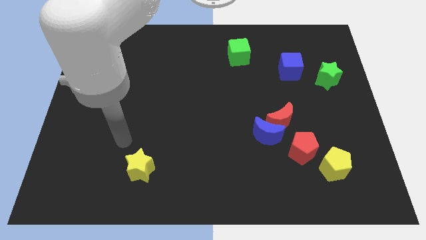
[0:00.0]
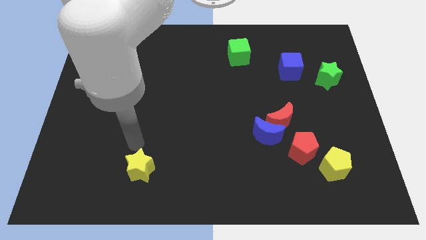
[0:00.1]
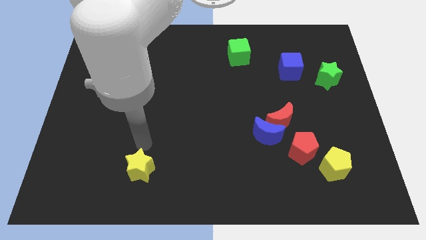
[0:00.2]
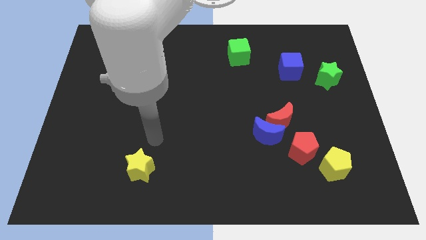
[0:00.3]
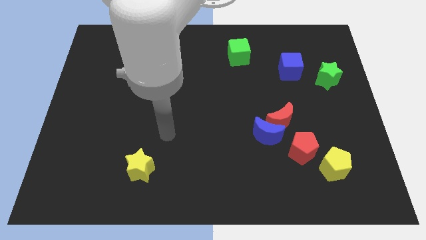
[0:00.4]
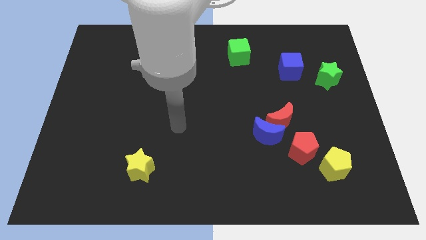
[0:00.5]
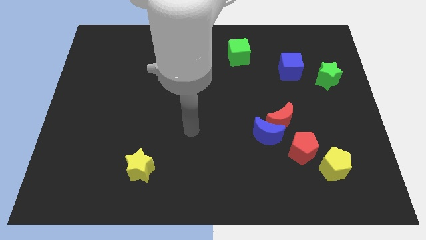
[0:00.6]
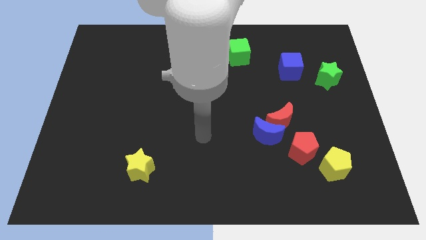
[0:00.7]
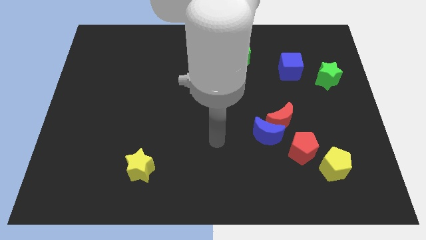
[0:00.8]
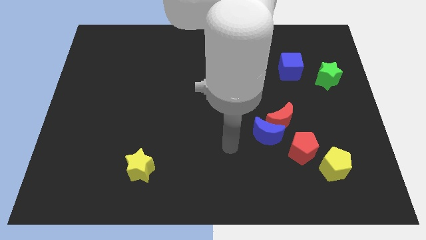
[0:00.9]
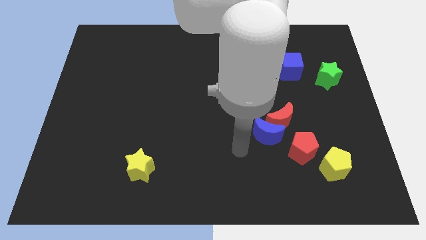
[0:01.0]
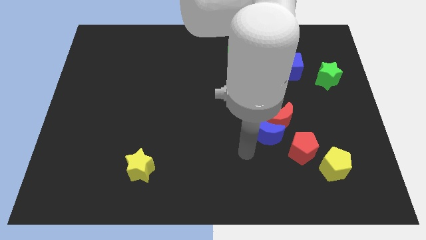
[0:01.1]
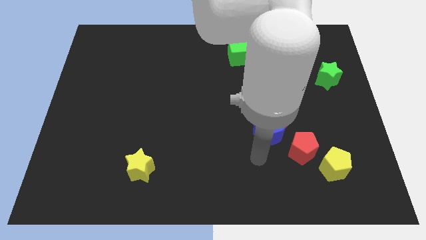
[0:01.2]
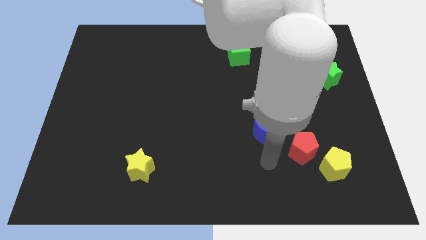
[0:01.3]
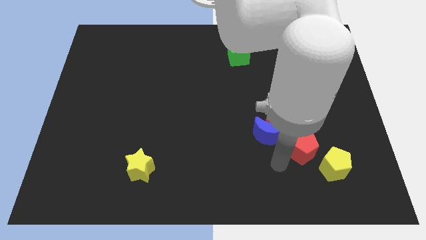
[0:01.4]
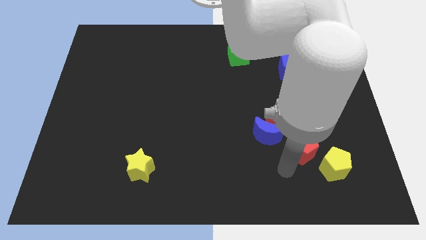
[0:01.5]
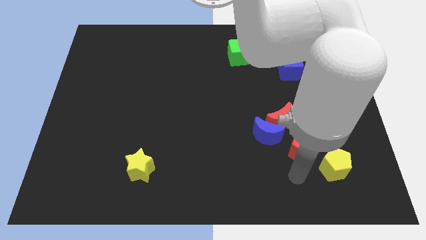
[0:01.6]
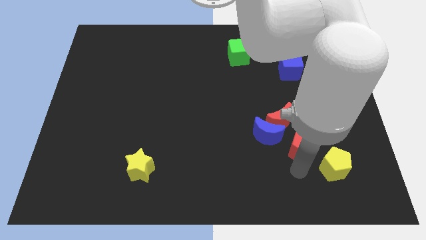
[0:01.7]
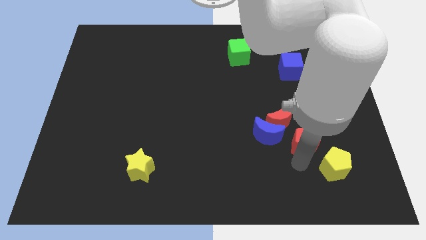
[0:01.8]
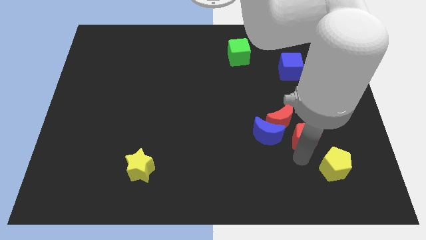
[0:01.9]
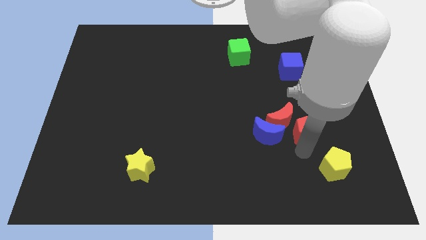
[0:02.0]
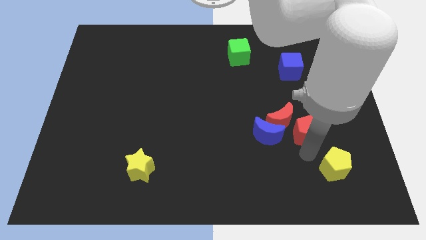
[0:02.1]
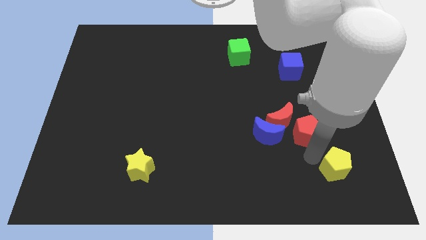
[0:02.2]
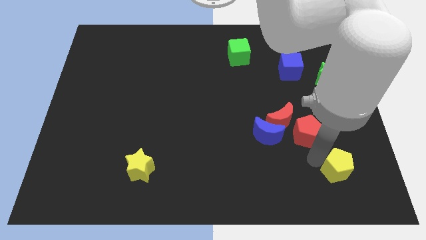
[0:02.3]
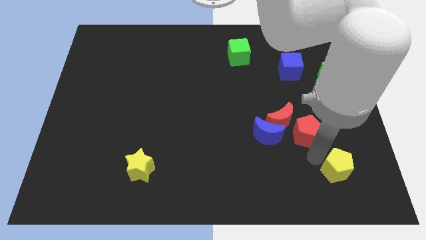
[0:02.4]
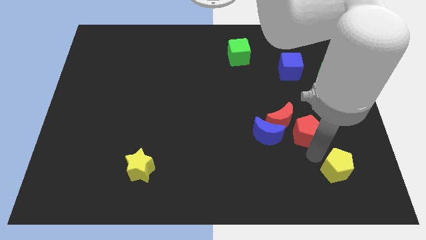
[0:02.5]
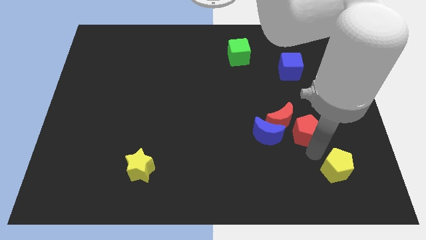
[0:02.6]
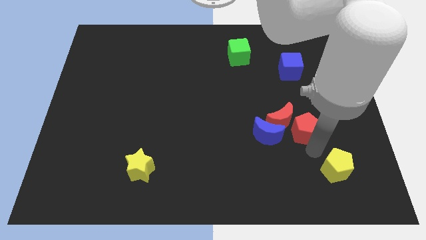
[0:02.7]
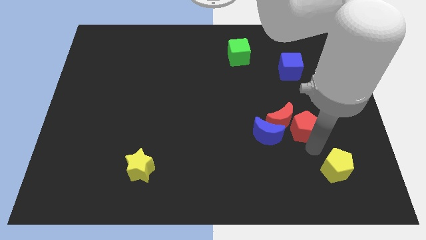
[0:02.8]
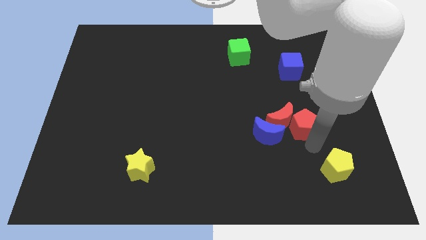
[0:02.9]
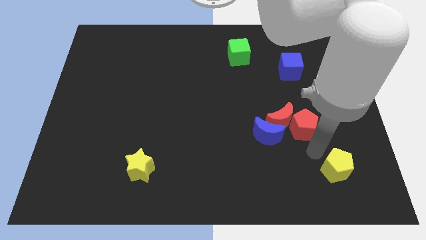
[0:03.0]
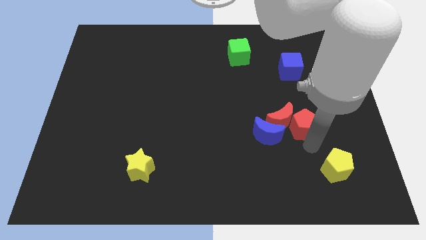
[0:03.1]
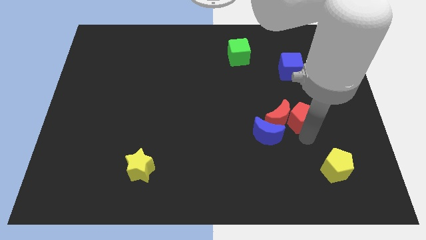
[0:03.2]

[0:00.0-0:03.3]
push the red pentagon a bit upwards

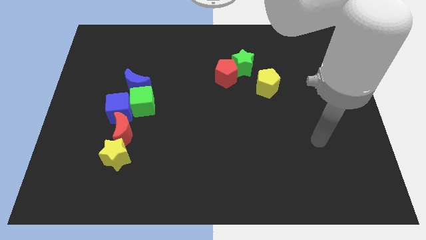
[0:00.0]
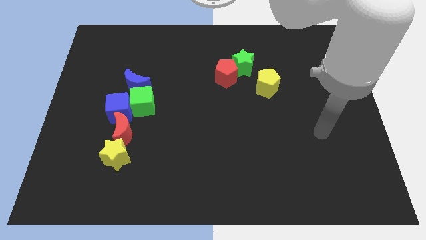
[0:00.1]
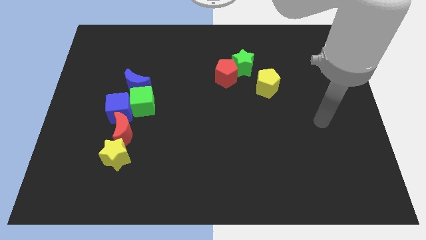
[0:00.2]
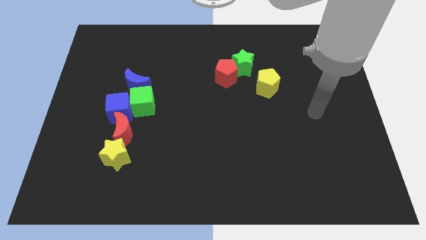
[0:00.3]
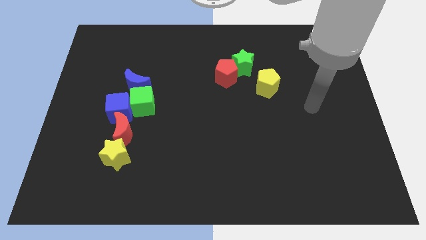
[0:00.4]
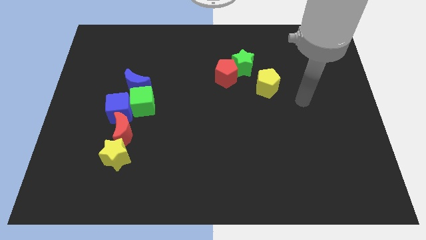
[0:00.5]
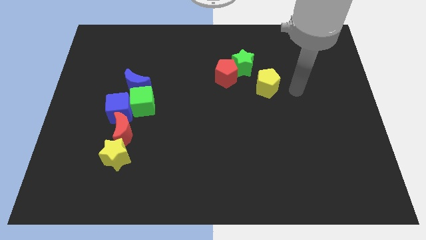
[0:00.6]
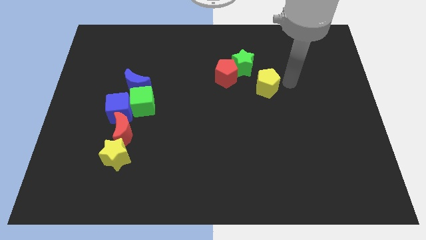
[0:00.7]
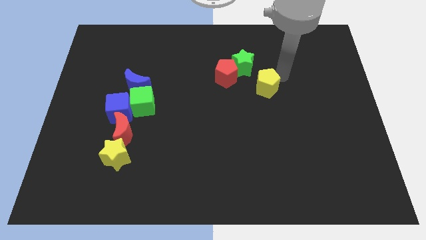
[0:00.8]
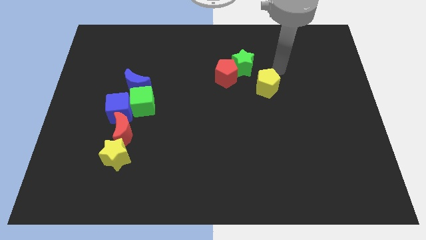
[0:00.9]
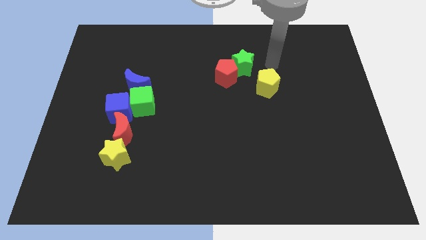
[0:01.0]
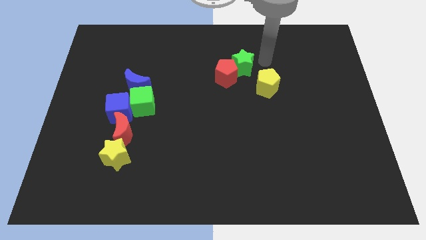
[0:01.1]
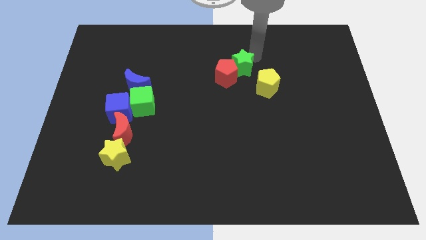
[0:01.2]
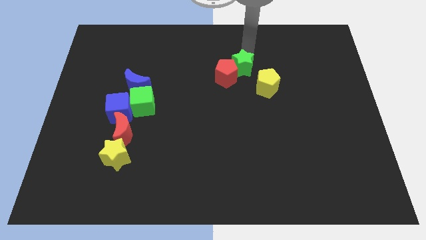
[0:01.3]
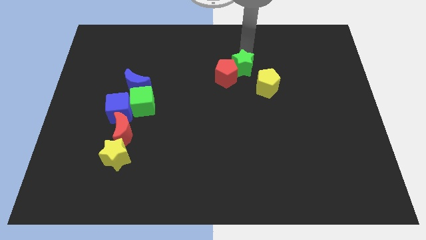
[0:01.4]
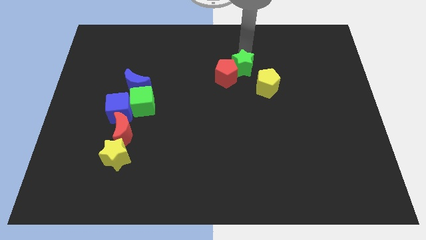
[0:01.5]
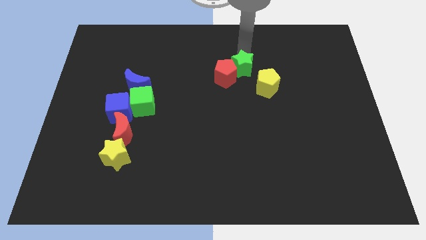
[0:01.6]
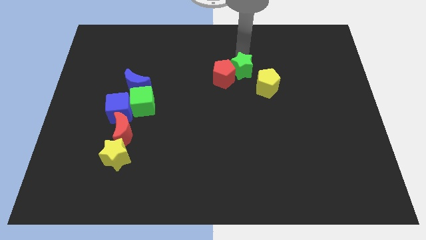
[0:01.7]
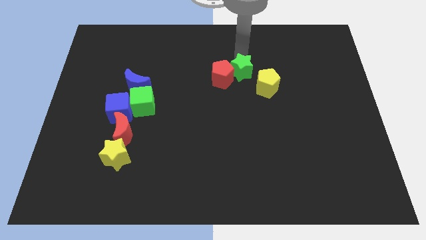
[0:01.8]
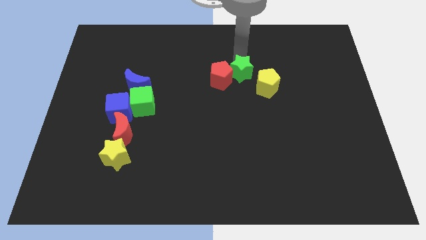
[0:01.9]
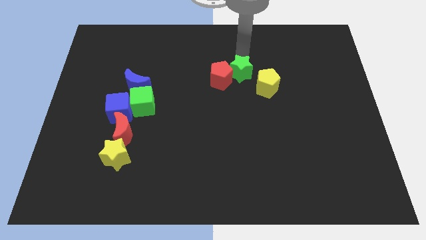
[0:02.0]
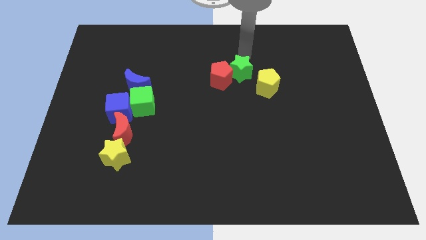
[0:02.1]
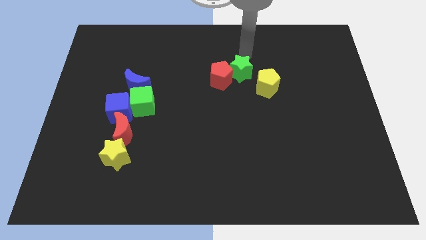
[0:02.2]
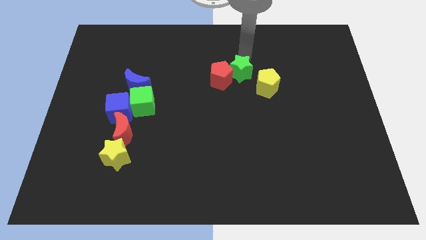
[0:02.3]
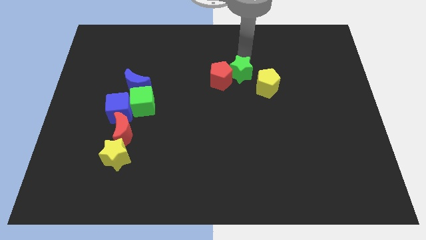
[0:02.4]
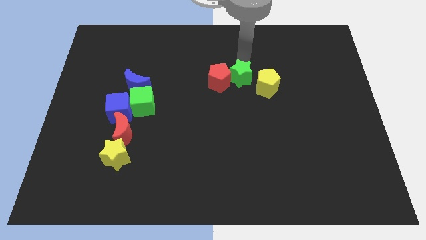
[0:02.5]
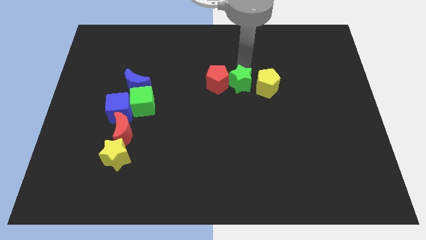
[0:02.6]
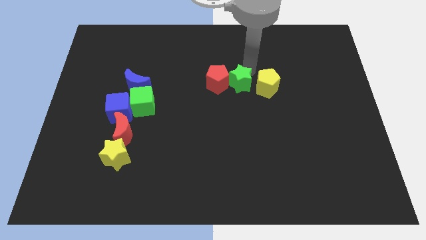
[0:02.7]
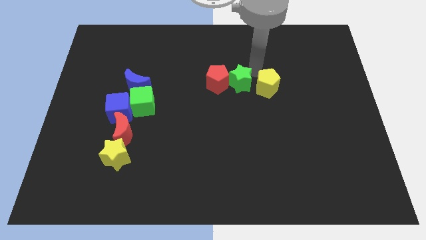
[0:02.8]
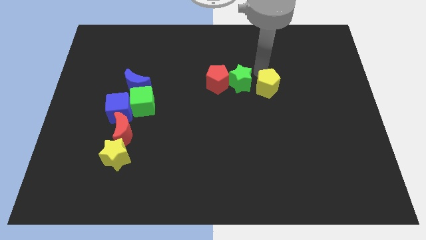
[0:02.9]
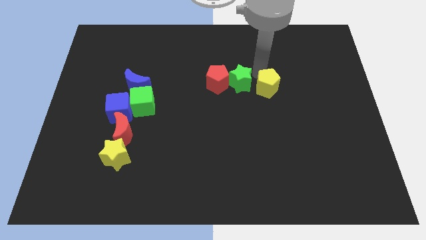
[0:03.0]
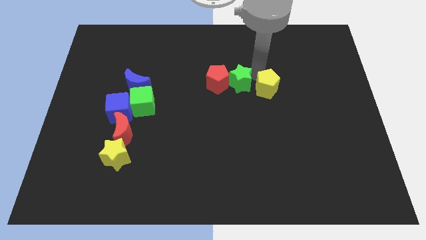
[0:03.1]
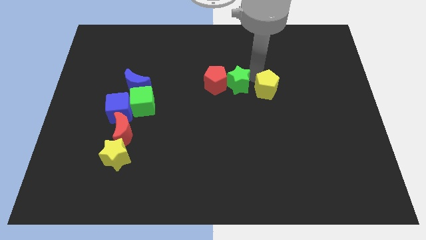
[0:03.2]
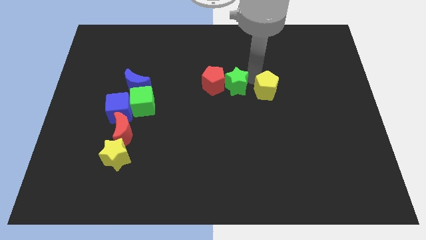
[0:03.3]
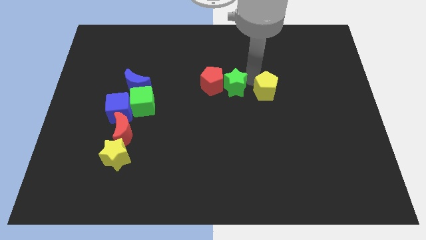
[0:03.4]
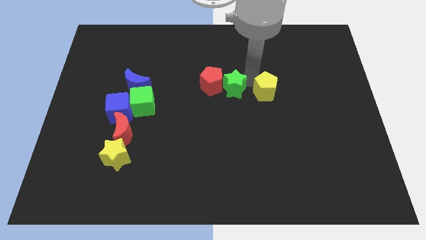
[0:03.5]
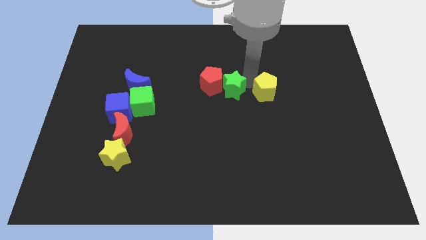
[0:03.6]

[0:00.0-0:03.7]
slightly move the green star down and left diagonally

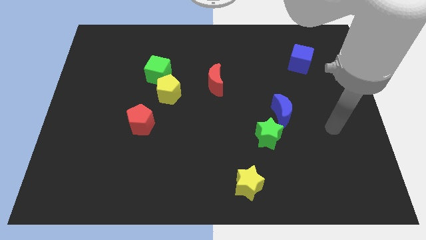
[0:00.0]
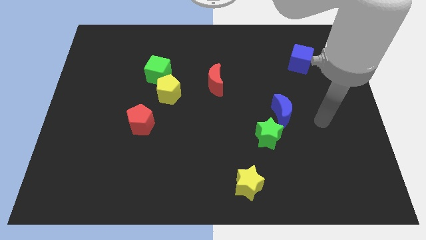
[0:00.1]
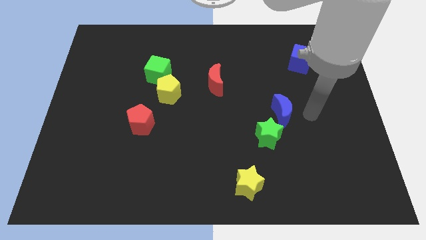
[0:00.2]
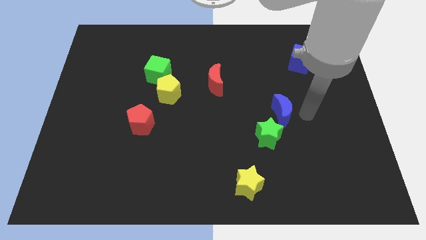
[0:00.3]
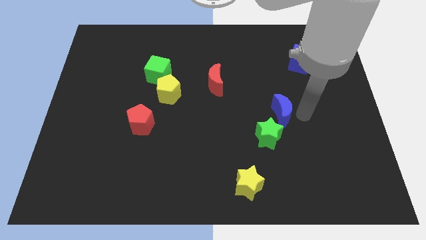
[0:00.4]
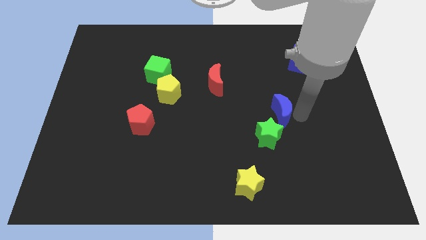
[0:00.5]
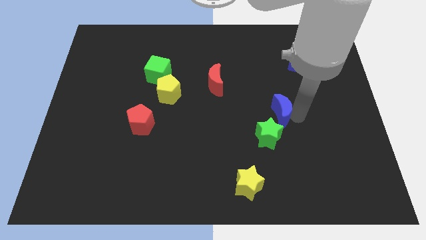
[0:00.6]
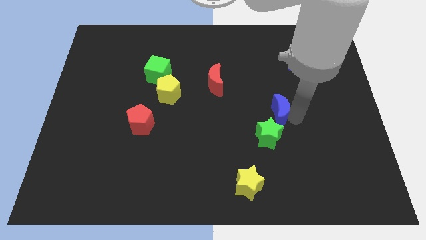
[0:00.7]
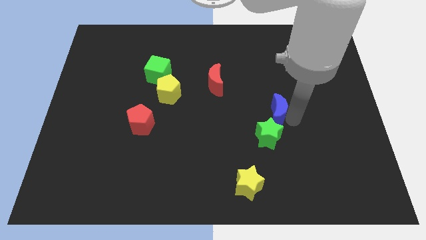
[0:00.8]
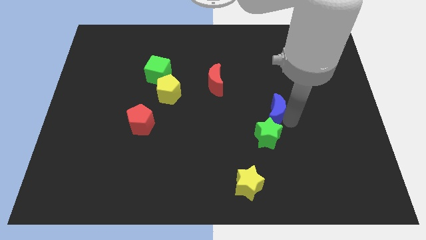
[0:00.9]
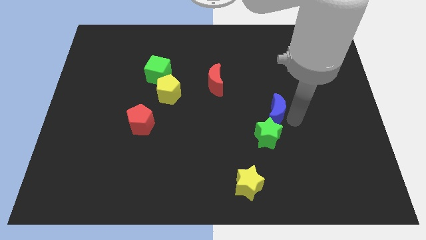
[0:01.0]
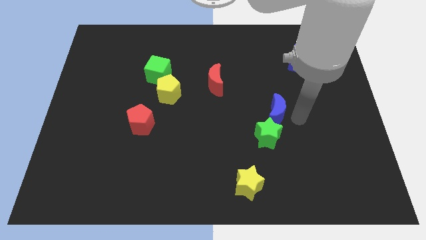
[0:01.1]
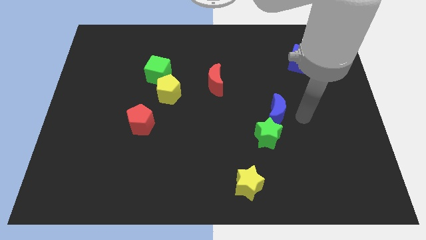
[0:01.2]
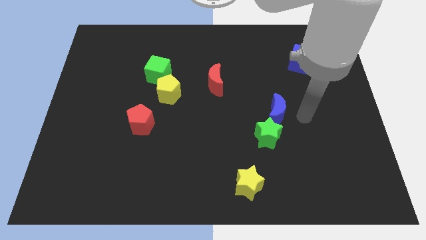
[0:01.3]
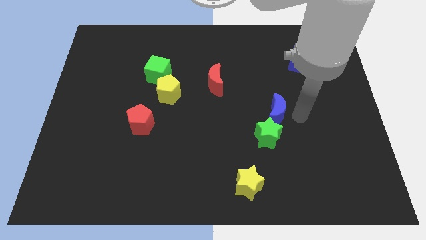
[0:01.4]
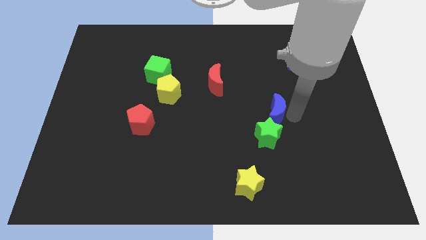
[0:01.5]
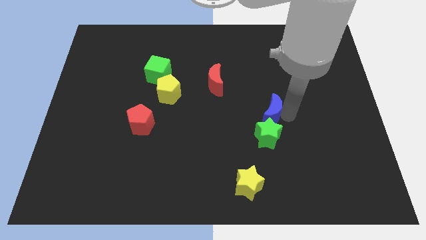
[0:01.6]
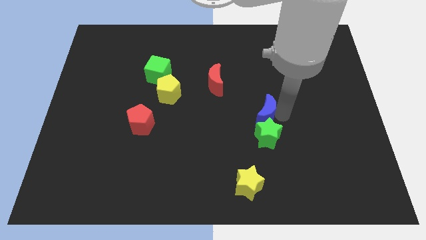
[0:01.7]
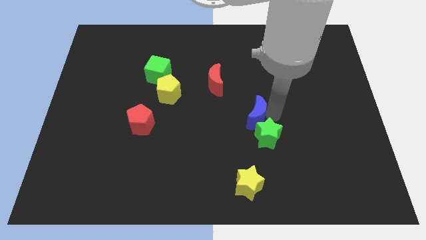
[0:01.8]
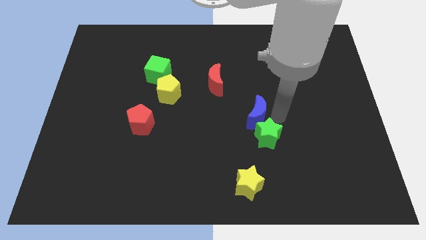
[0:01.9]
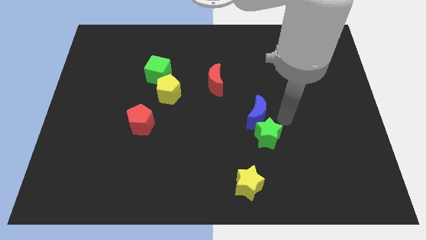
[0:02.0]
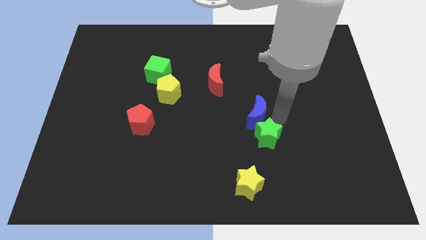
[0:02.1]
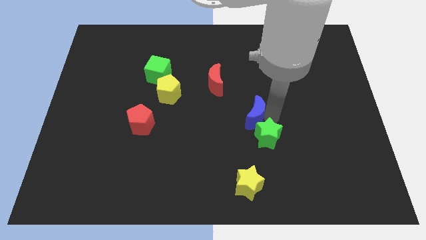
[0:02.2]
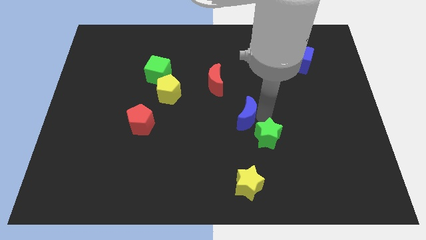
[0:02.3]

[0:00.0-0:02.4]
move the blue moon left somewhat
